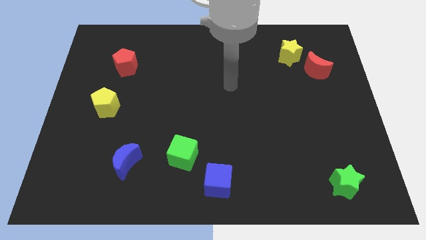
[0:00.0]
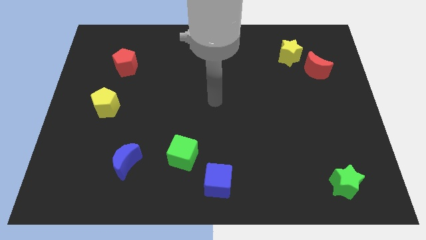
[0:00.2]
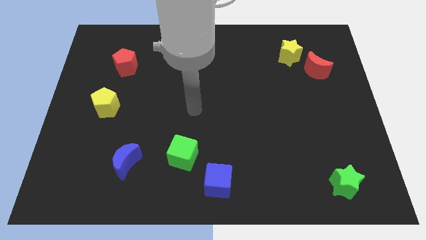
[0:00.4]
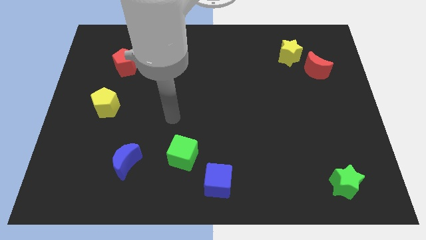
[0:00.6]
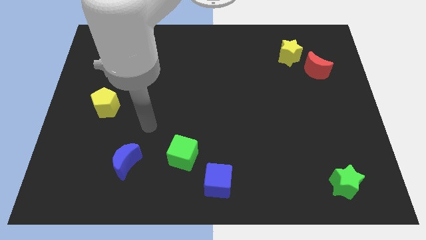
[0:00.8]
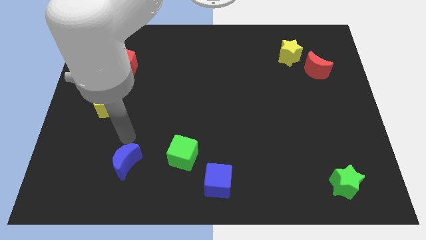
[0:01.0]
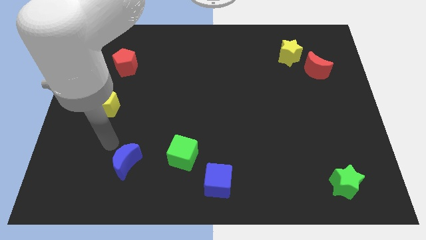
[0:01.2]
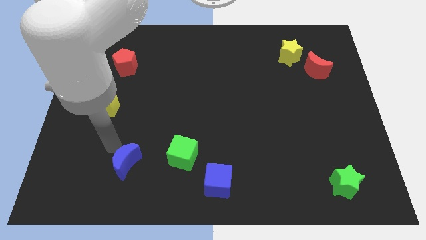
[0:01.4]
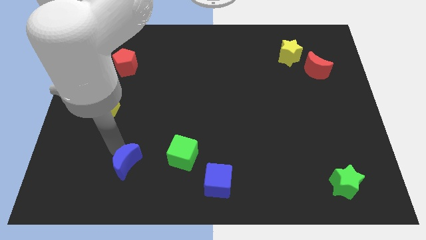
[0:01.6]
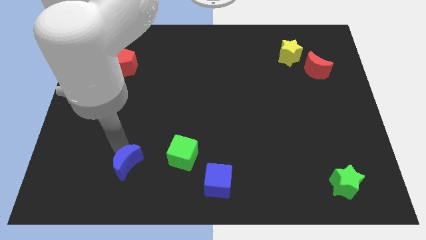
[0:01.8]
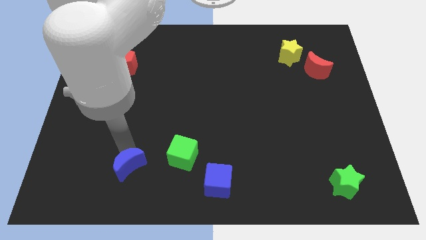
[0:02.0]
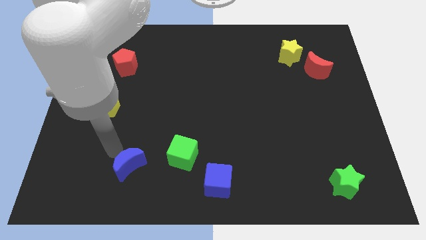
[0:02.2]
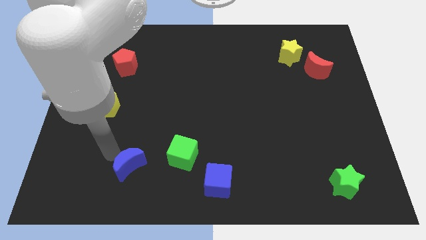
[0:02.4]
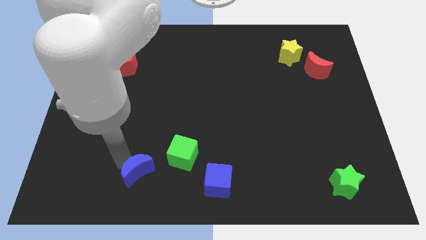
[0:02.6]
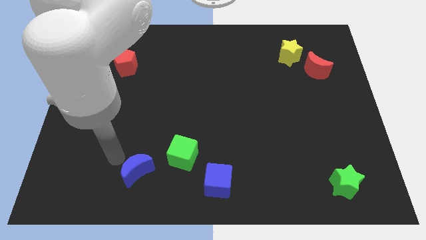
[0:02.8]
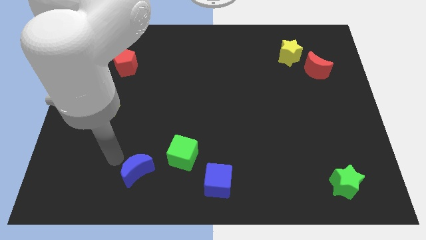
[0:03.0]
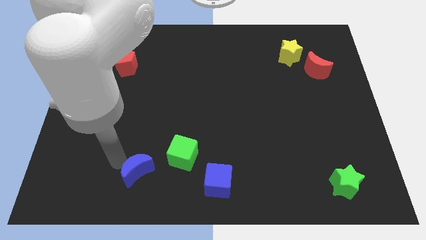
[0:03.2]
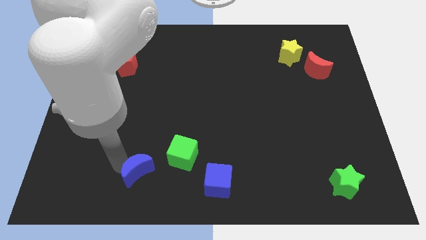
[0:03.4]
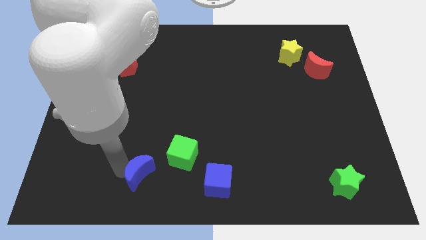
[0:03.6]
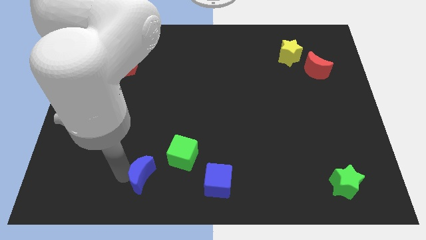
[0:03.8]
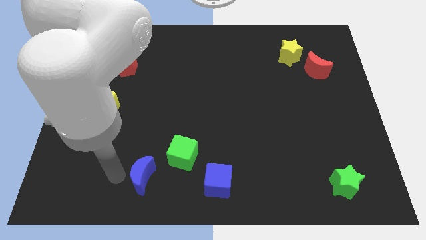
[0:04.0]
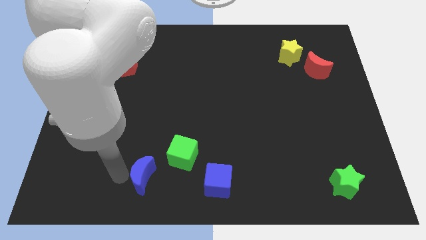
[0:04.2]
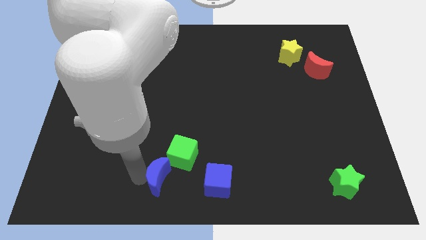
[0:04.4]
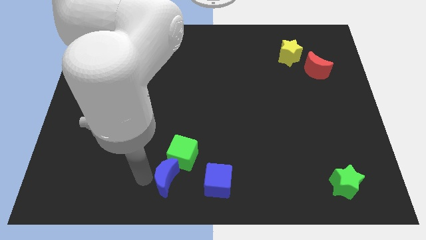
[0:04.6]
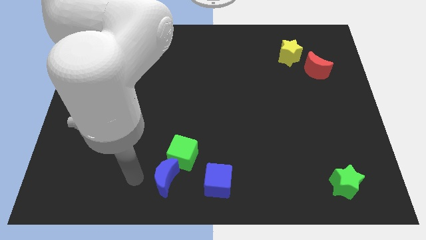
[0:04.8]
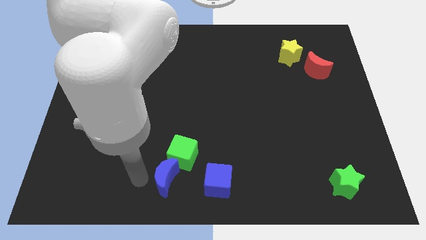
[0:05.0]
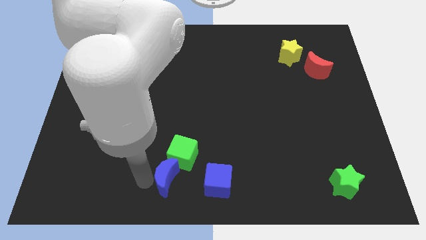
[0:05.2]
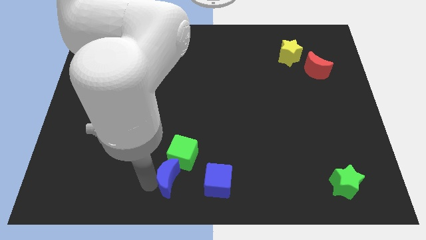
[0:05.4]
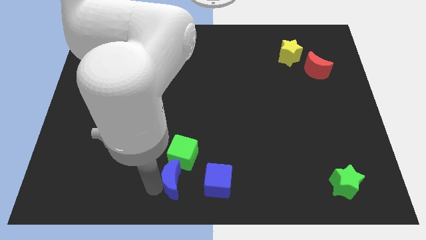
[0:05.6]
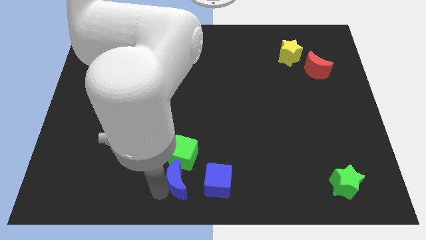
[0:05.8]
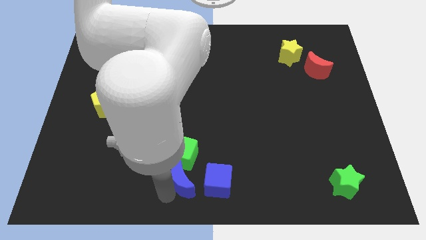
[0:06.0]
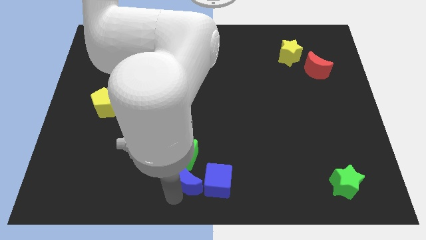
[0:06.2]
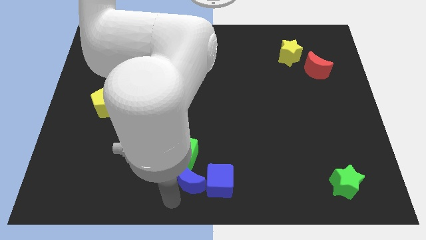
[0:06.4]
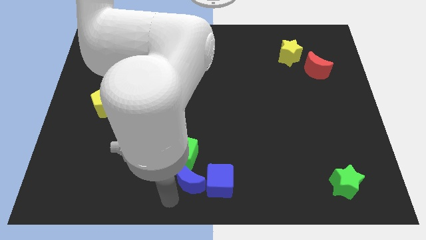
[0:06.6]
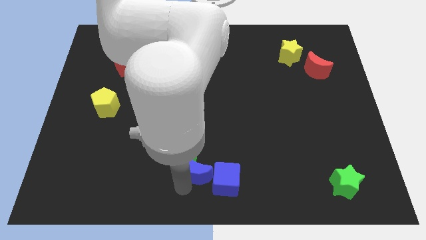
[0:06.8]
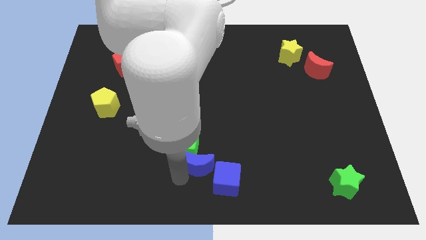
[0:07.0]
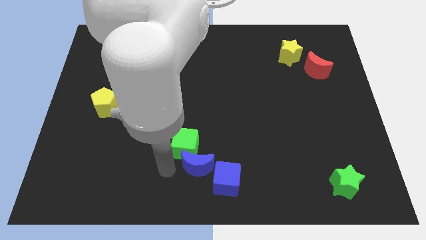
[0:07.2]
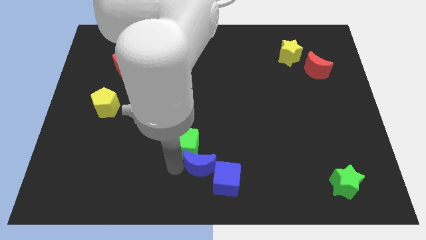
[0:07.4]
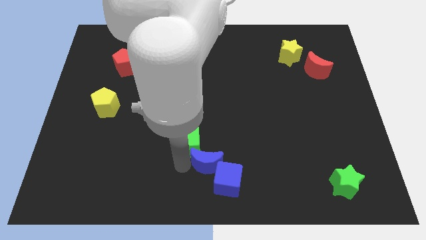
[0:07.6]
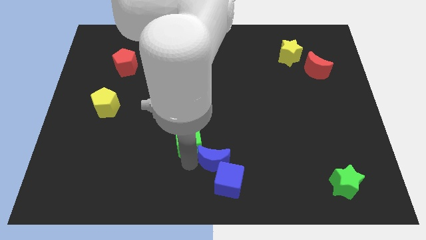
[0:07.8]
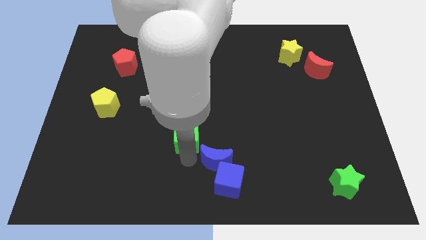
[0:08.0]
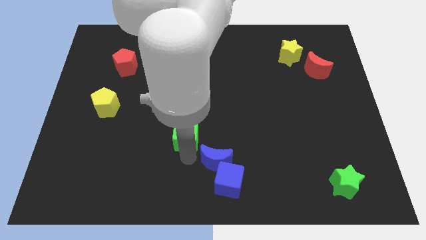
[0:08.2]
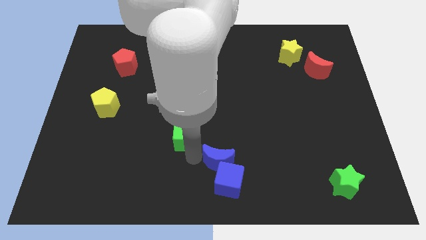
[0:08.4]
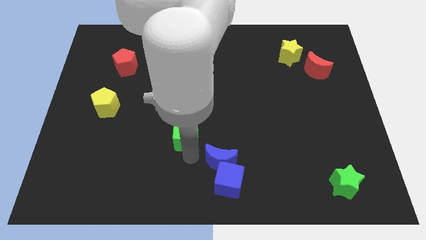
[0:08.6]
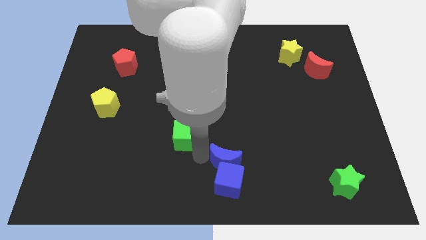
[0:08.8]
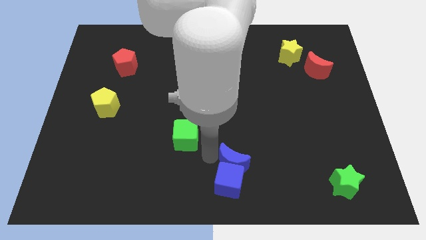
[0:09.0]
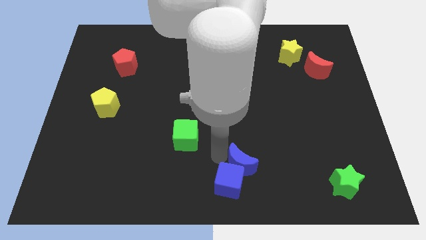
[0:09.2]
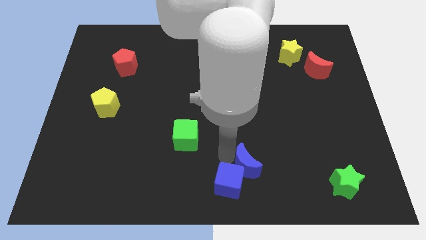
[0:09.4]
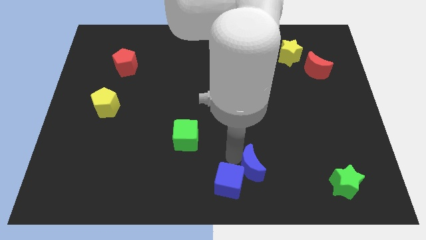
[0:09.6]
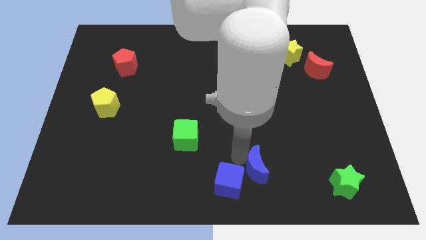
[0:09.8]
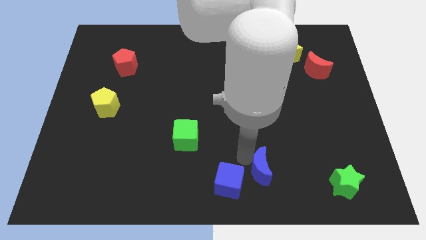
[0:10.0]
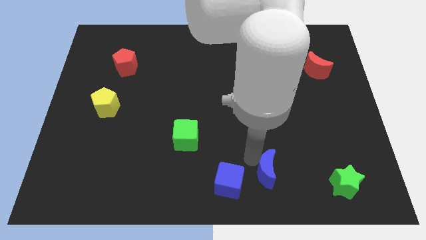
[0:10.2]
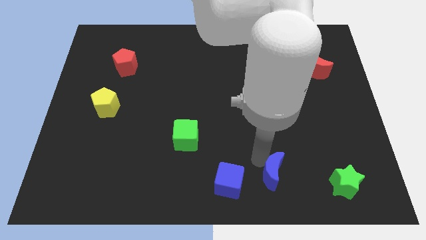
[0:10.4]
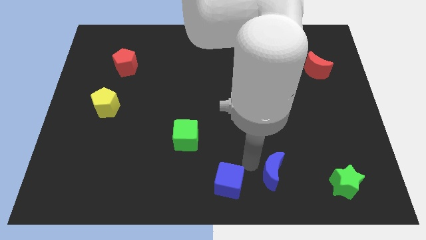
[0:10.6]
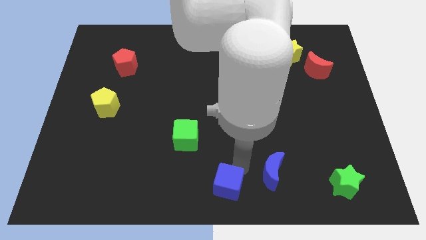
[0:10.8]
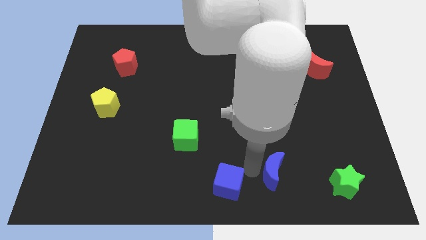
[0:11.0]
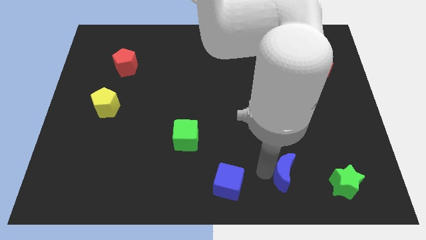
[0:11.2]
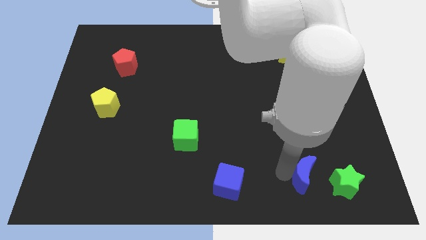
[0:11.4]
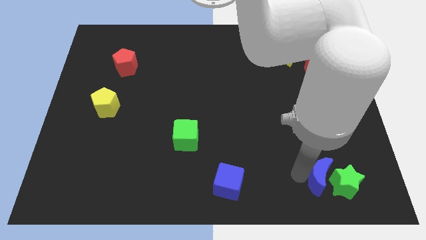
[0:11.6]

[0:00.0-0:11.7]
push the blue moon to the green star

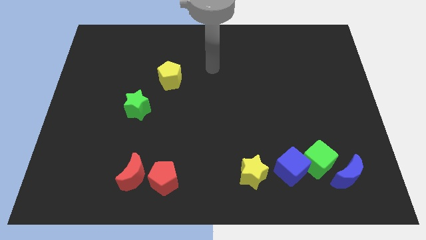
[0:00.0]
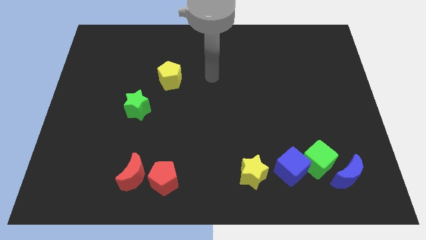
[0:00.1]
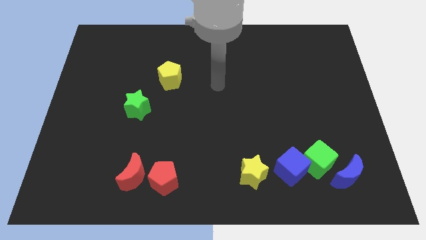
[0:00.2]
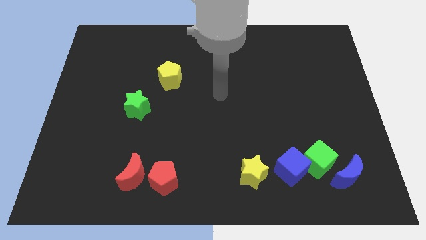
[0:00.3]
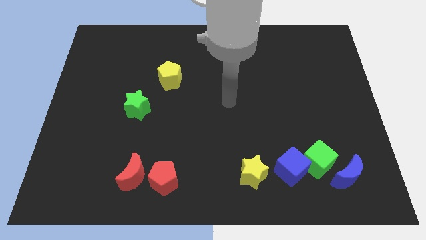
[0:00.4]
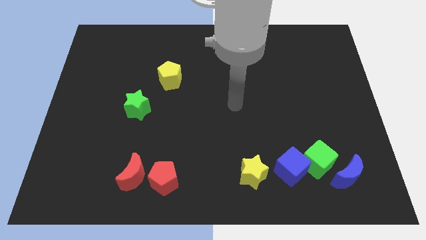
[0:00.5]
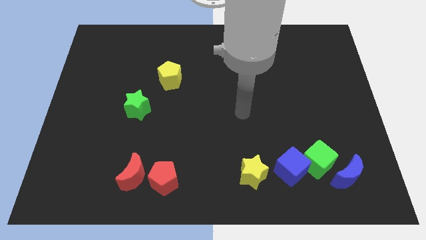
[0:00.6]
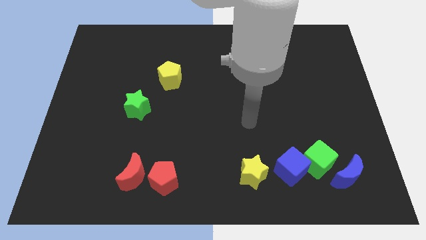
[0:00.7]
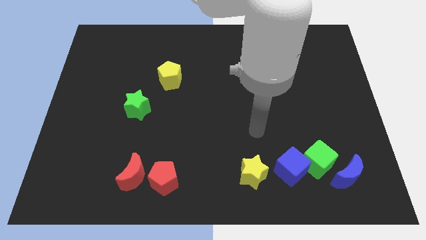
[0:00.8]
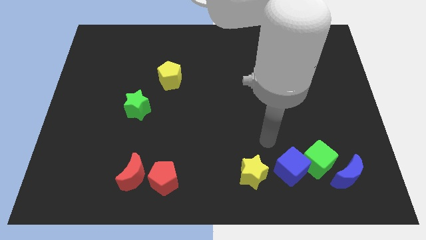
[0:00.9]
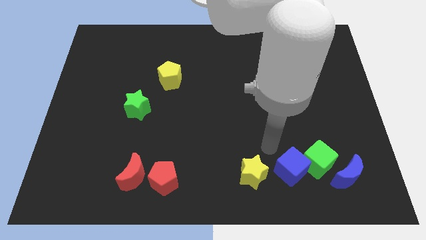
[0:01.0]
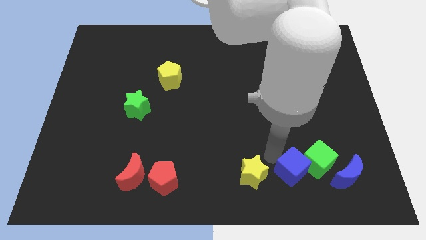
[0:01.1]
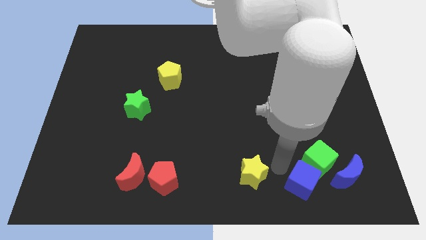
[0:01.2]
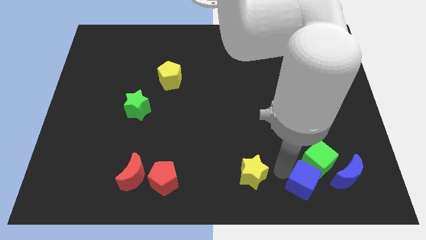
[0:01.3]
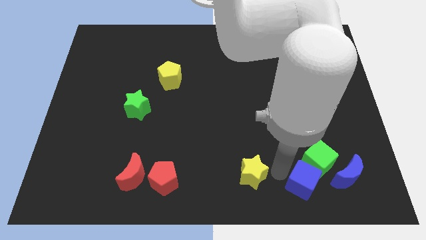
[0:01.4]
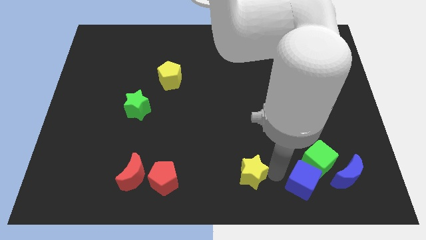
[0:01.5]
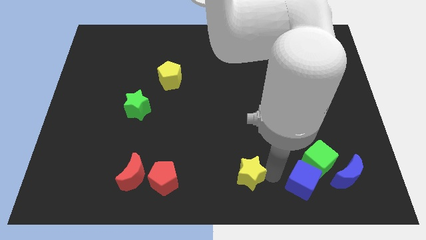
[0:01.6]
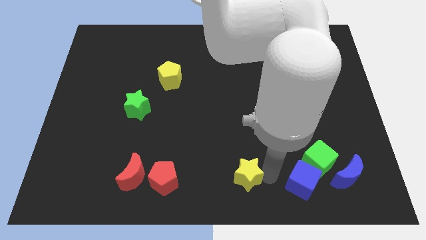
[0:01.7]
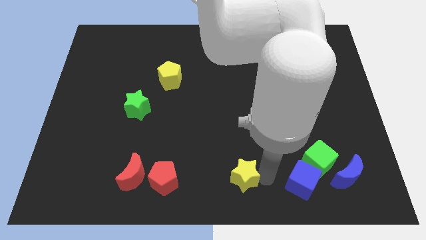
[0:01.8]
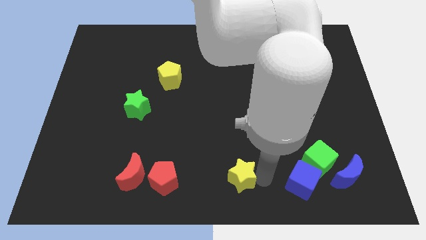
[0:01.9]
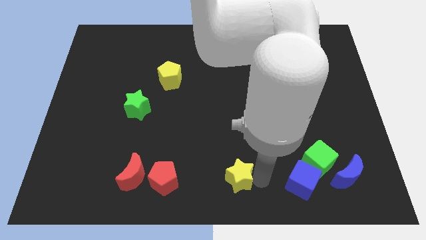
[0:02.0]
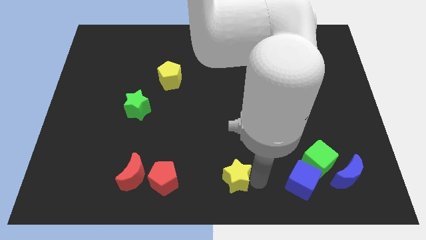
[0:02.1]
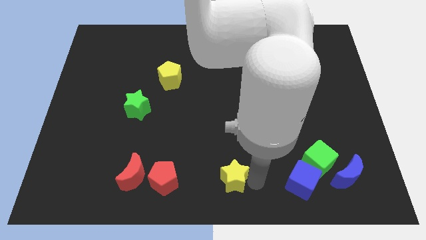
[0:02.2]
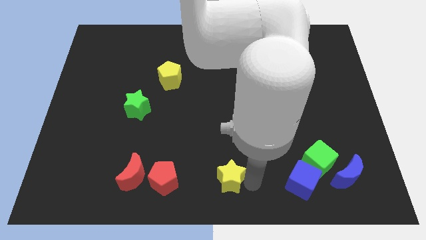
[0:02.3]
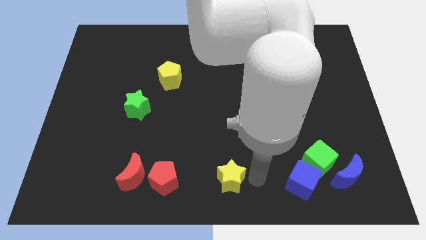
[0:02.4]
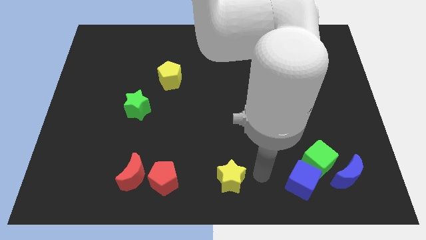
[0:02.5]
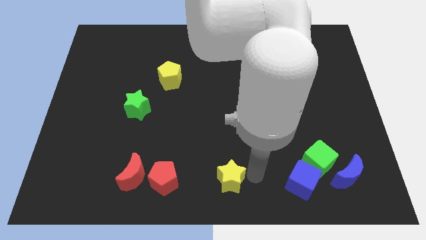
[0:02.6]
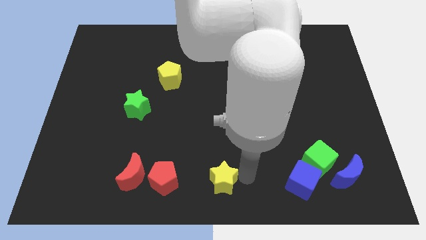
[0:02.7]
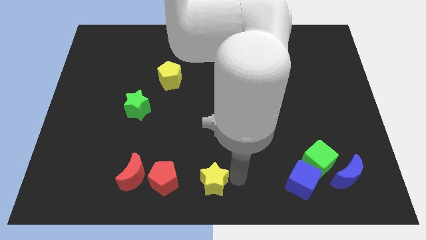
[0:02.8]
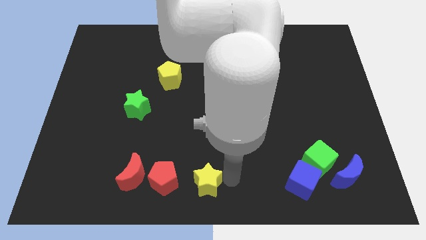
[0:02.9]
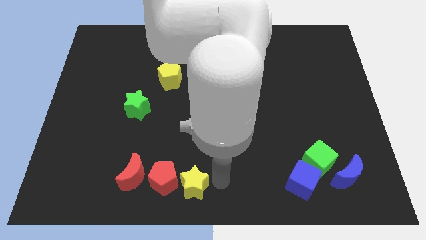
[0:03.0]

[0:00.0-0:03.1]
push the yellow star next to the red pentagon
